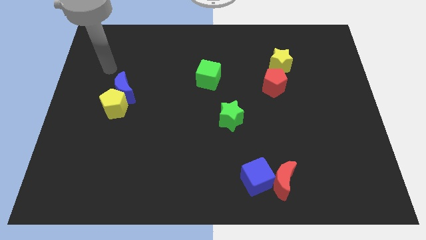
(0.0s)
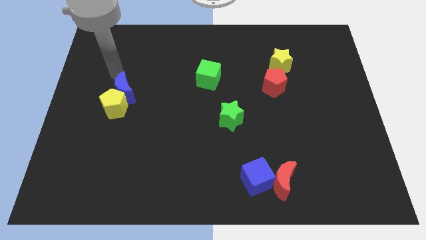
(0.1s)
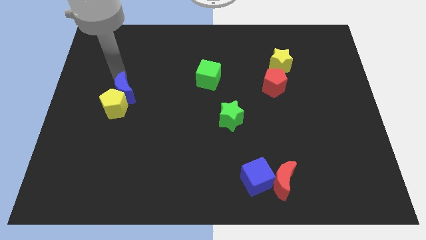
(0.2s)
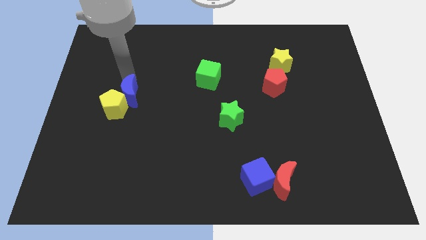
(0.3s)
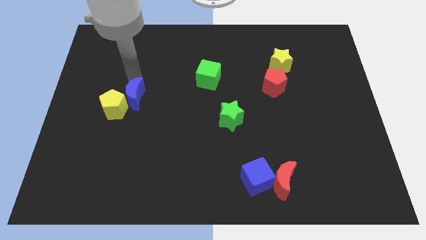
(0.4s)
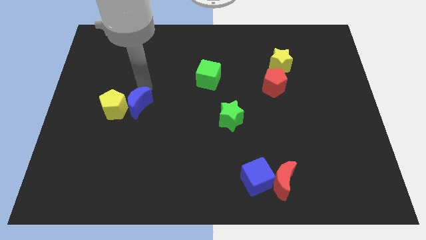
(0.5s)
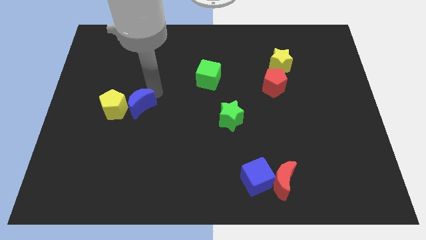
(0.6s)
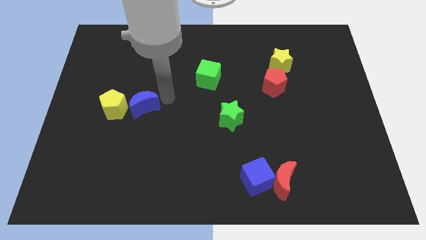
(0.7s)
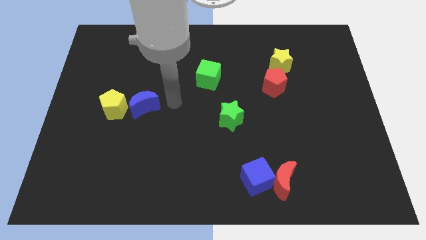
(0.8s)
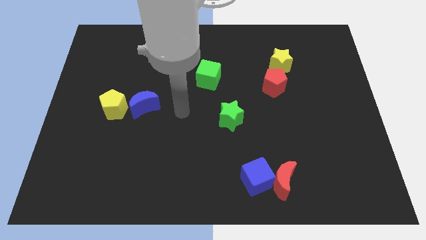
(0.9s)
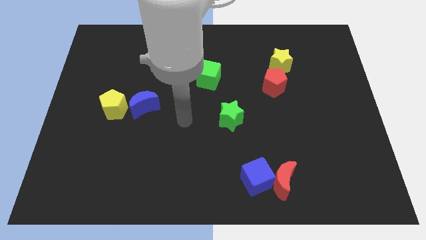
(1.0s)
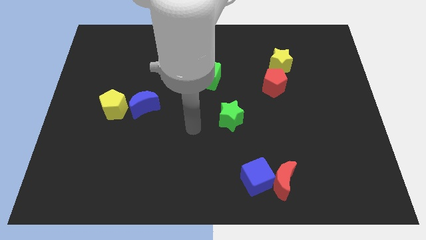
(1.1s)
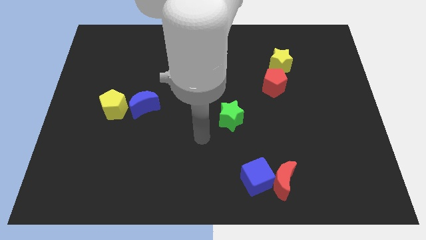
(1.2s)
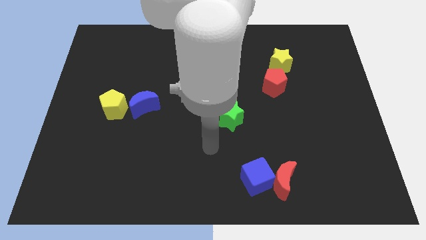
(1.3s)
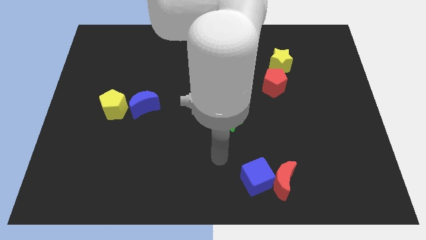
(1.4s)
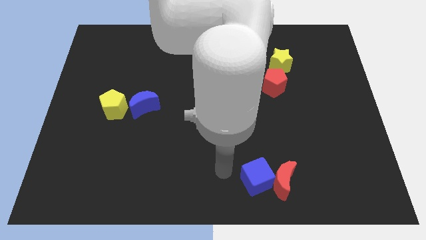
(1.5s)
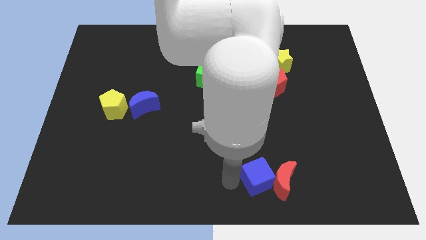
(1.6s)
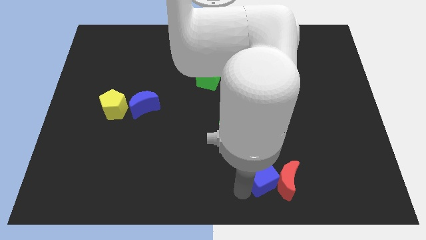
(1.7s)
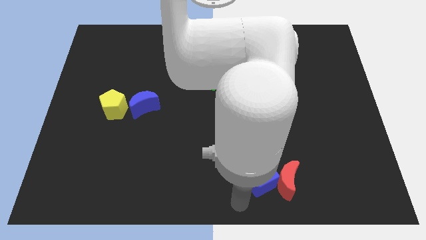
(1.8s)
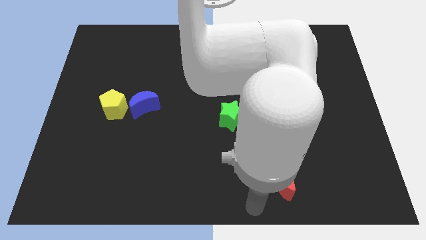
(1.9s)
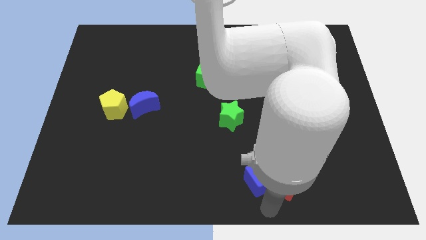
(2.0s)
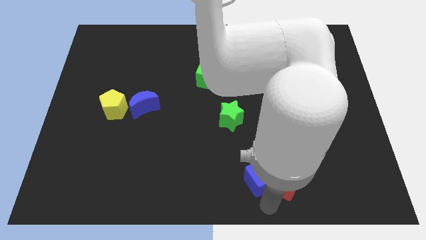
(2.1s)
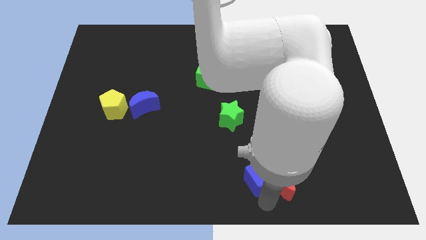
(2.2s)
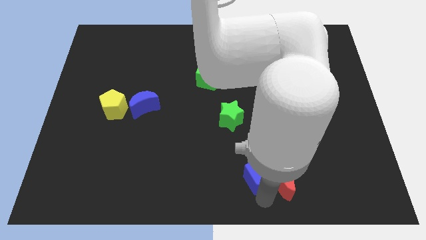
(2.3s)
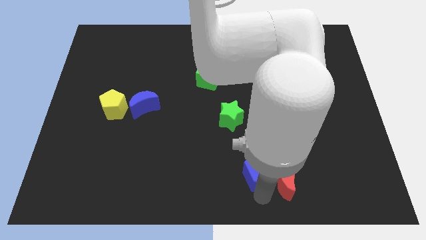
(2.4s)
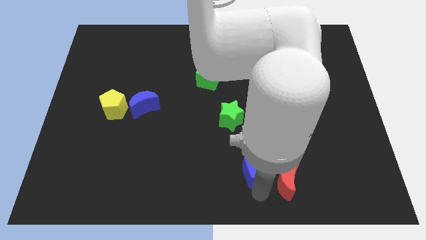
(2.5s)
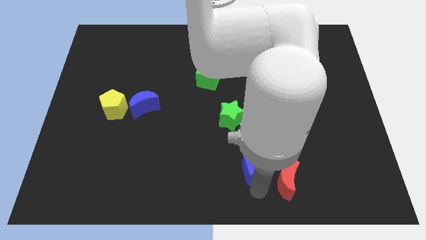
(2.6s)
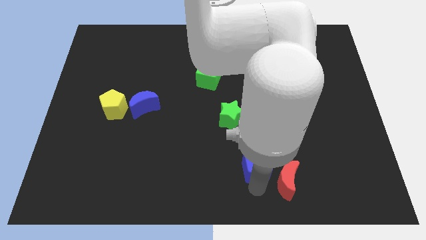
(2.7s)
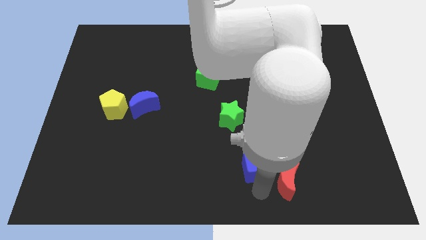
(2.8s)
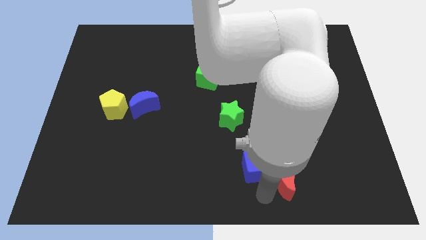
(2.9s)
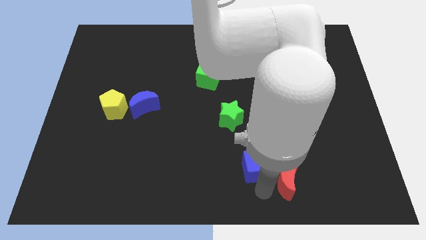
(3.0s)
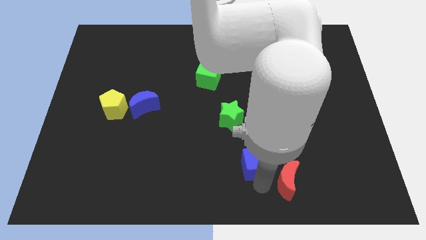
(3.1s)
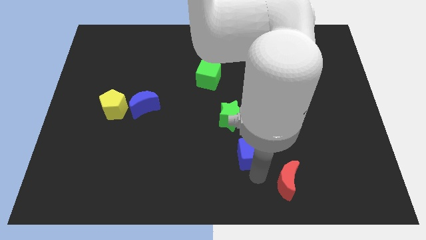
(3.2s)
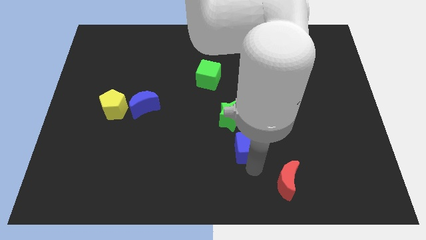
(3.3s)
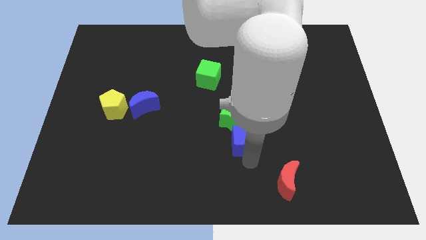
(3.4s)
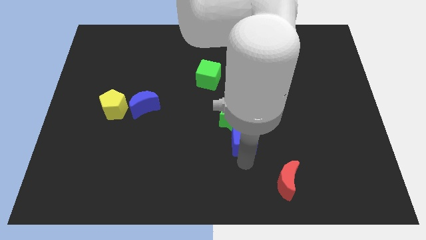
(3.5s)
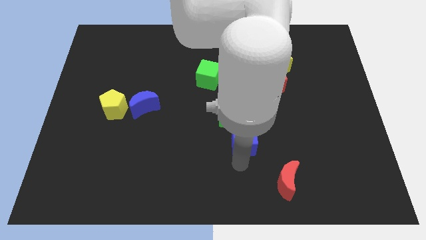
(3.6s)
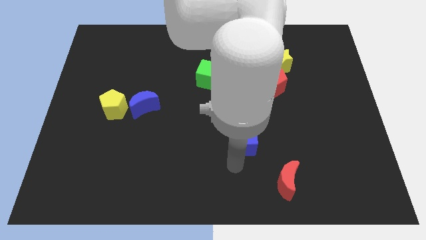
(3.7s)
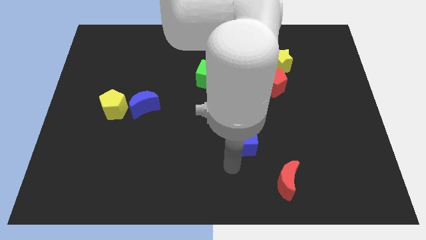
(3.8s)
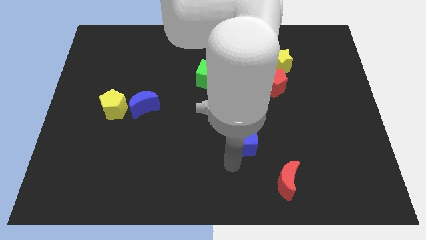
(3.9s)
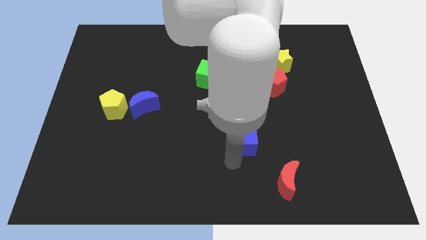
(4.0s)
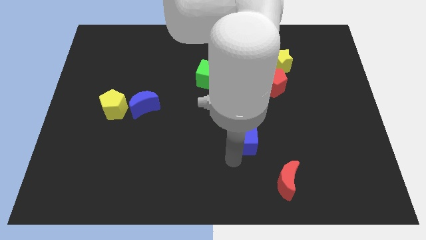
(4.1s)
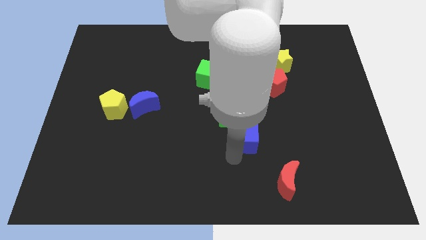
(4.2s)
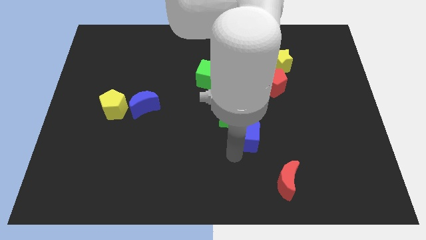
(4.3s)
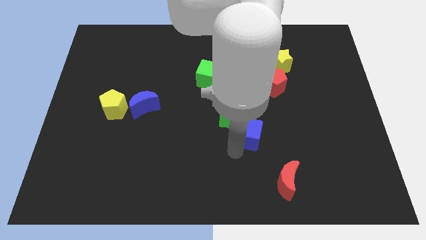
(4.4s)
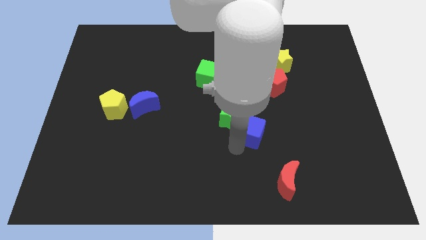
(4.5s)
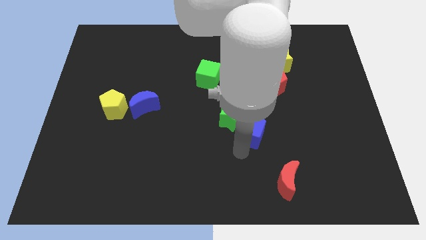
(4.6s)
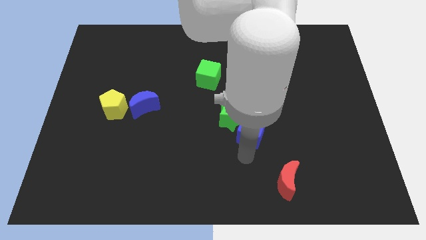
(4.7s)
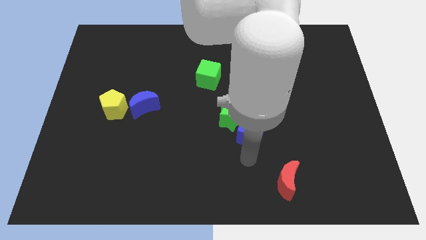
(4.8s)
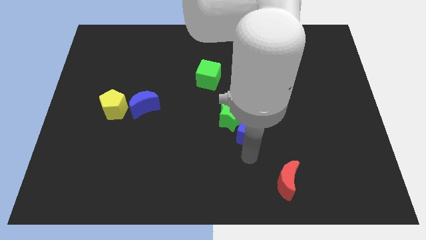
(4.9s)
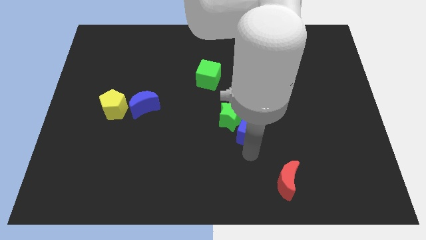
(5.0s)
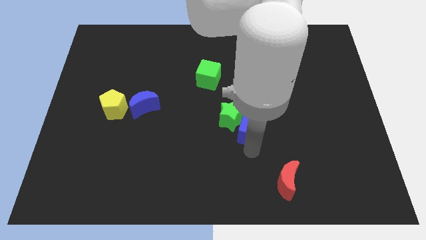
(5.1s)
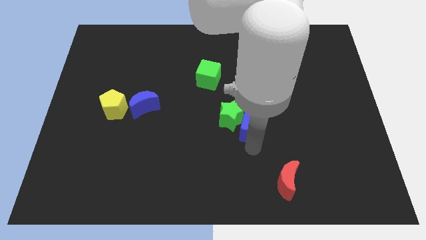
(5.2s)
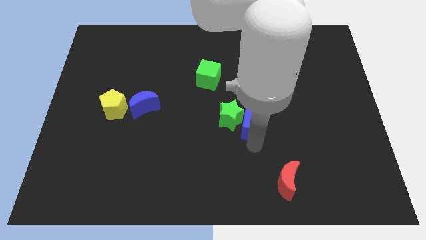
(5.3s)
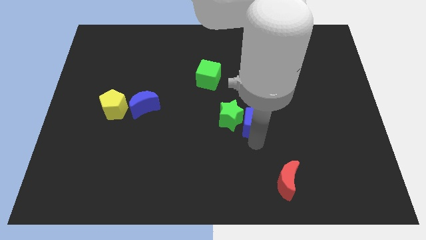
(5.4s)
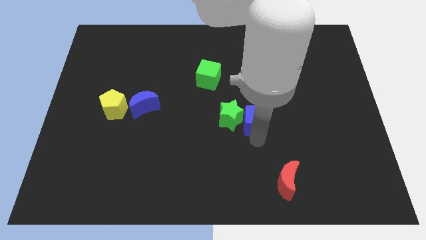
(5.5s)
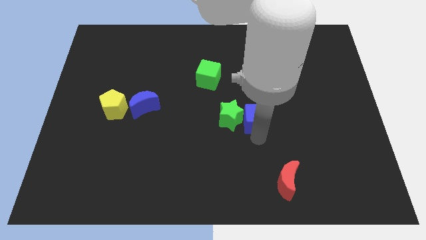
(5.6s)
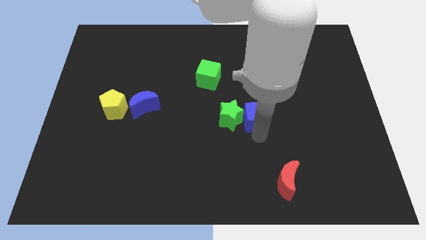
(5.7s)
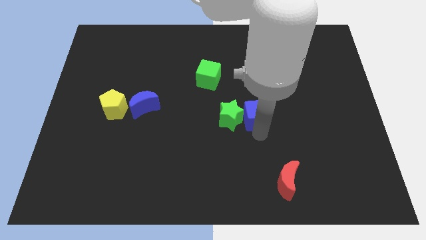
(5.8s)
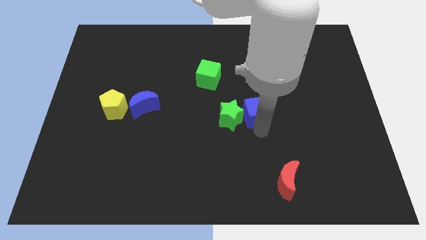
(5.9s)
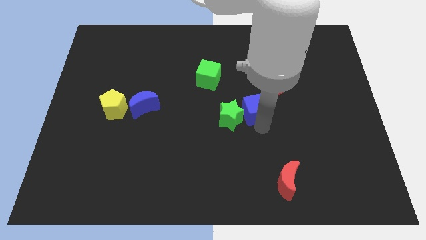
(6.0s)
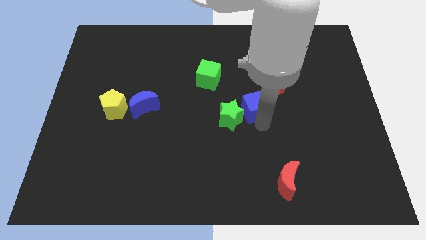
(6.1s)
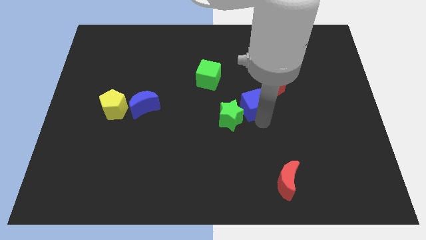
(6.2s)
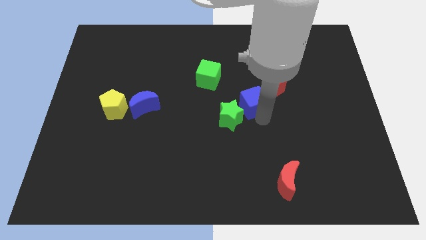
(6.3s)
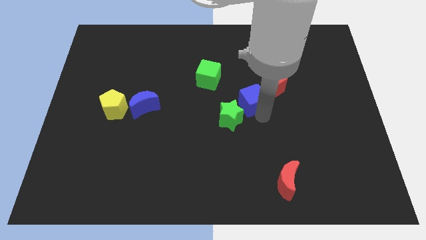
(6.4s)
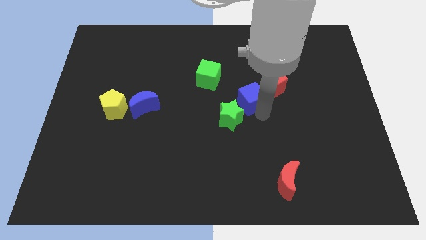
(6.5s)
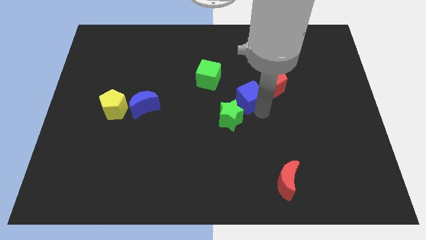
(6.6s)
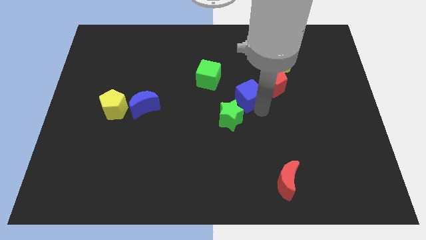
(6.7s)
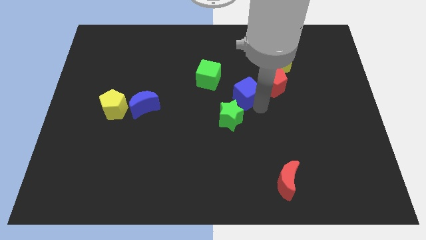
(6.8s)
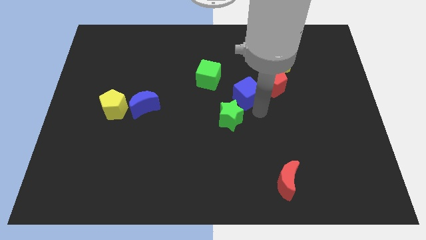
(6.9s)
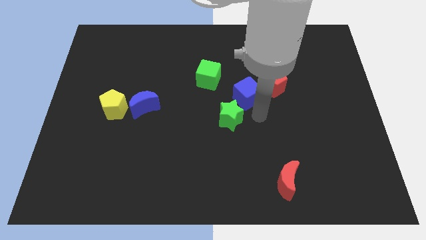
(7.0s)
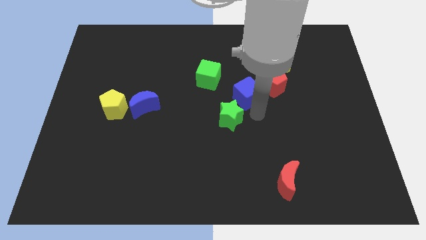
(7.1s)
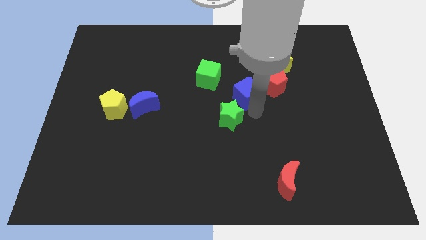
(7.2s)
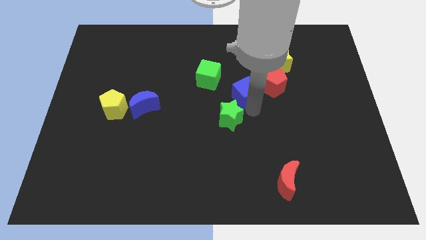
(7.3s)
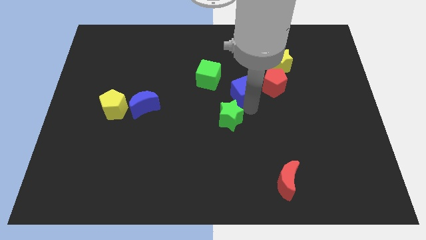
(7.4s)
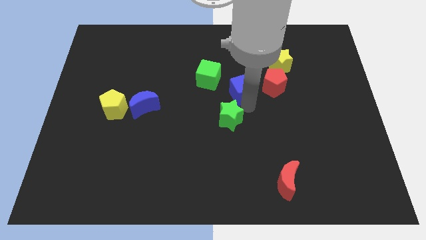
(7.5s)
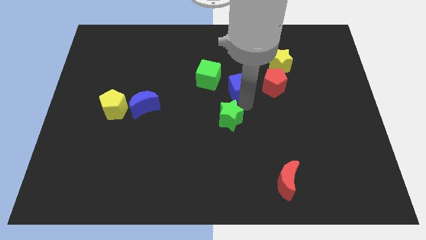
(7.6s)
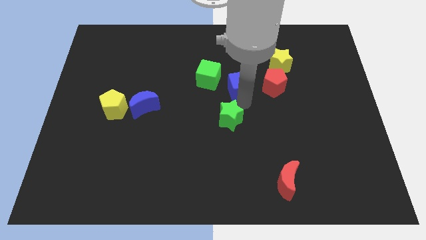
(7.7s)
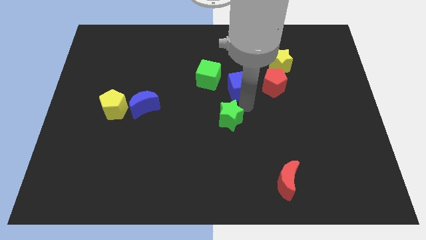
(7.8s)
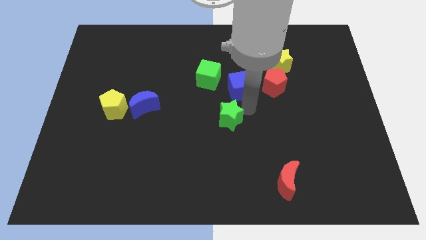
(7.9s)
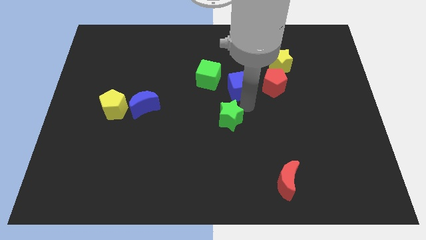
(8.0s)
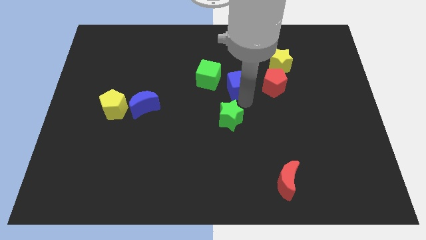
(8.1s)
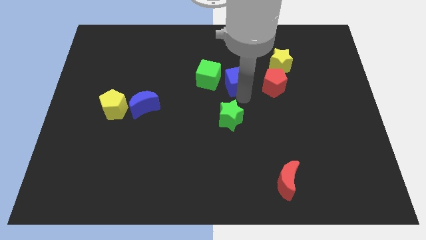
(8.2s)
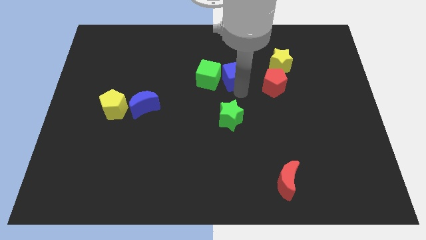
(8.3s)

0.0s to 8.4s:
move the blue cube to the top right side of the green cube
